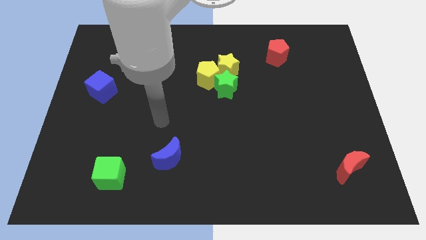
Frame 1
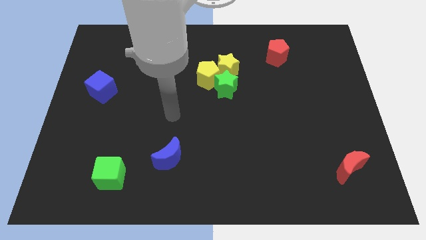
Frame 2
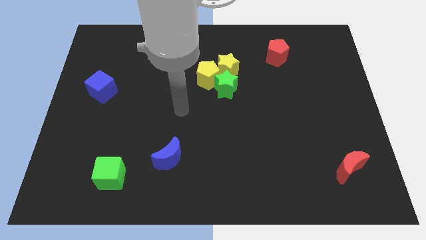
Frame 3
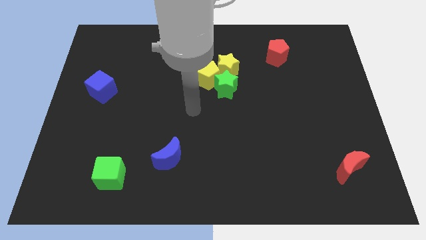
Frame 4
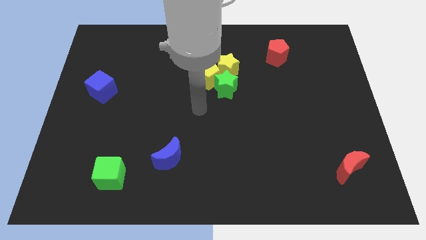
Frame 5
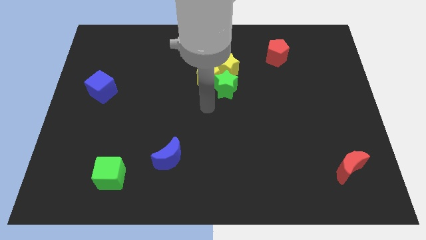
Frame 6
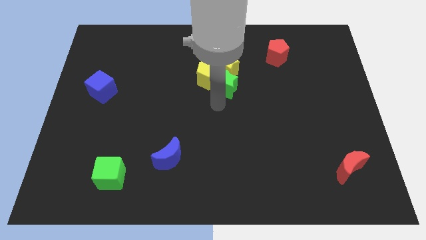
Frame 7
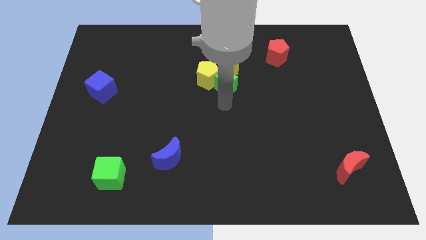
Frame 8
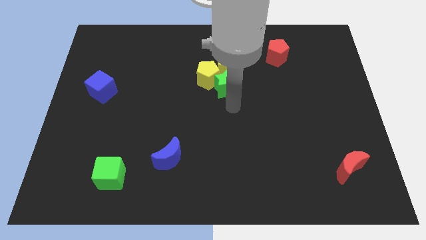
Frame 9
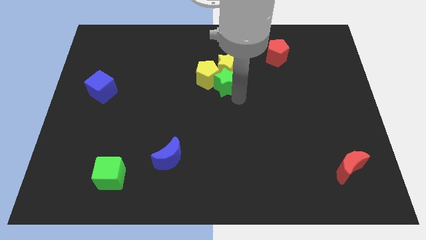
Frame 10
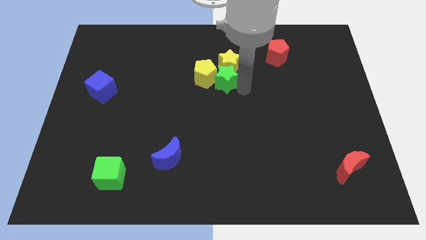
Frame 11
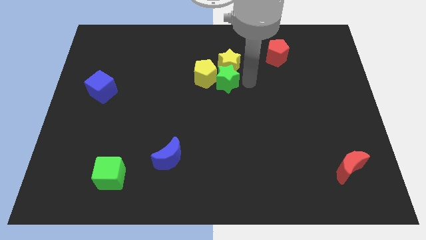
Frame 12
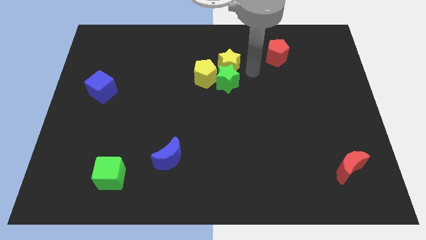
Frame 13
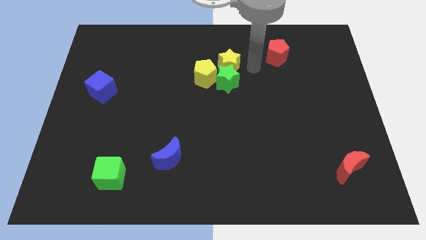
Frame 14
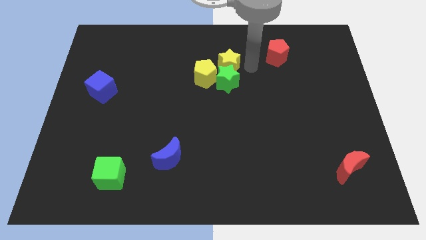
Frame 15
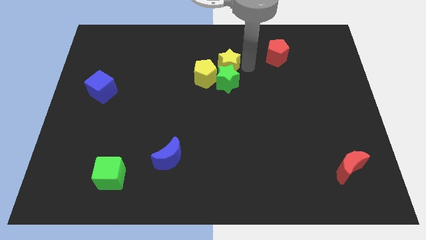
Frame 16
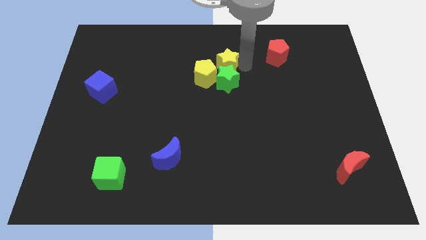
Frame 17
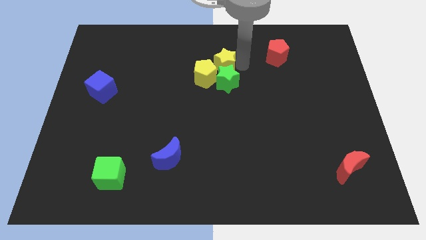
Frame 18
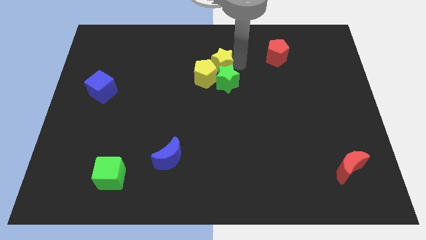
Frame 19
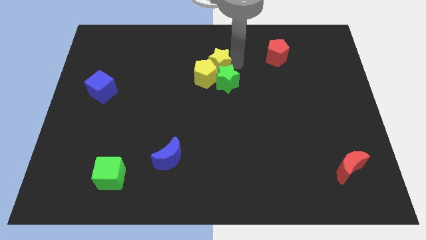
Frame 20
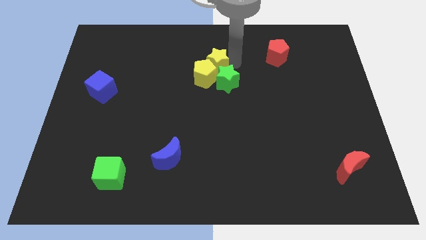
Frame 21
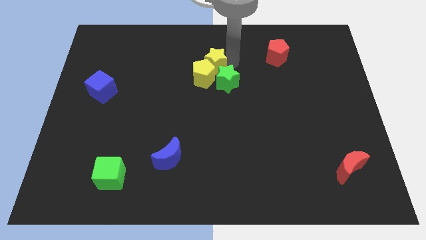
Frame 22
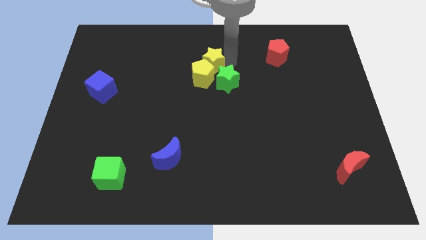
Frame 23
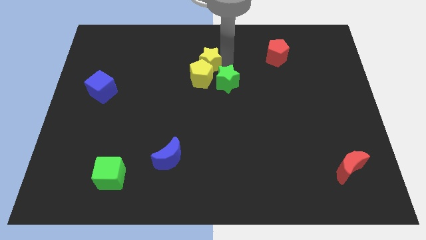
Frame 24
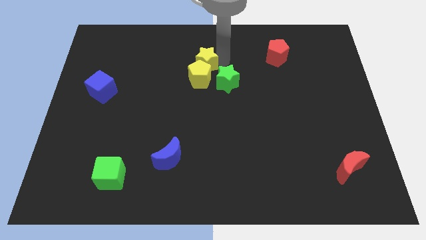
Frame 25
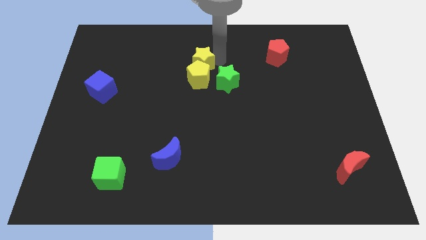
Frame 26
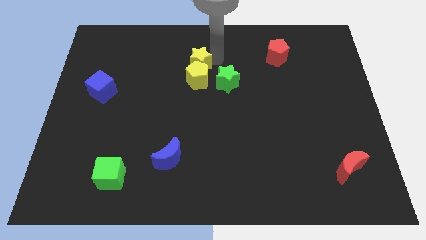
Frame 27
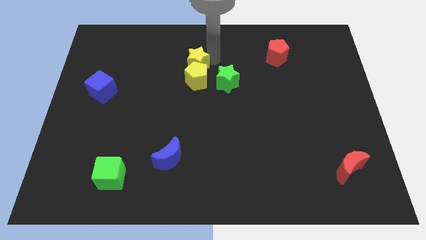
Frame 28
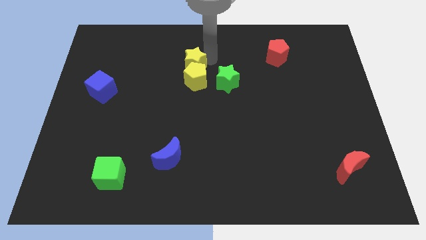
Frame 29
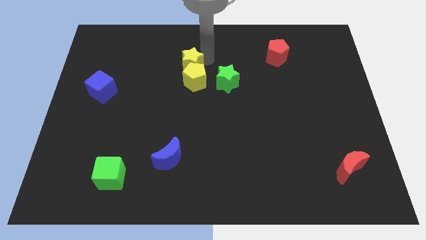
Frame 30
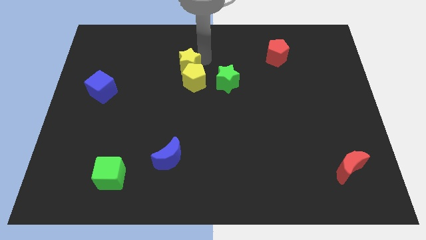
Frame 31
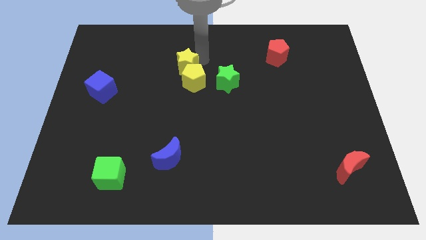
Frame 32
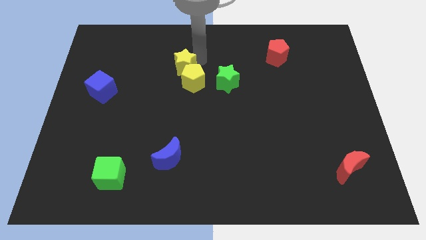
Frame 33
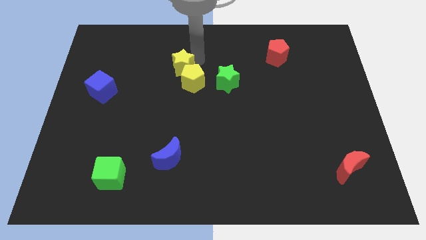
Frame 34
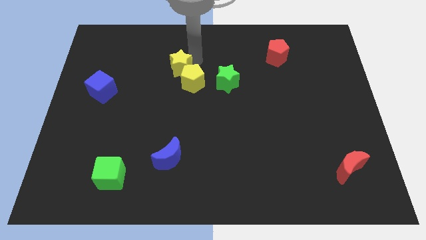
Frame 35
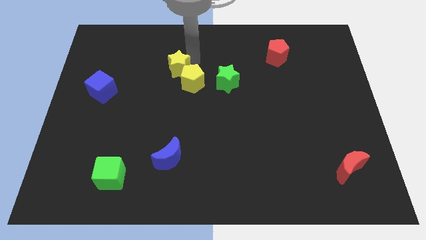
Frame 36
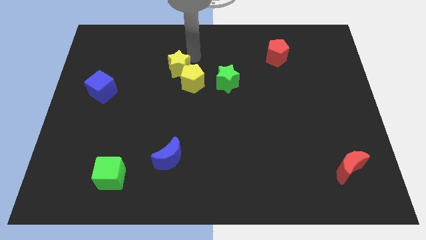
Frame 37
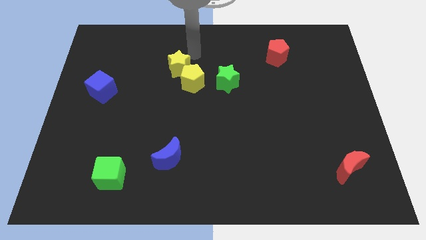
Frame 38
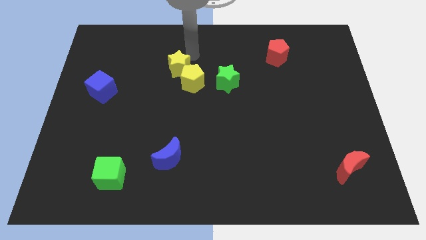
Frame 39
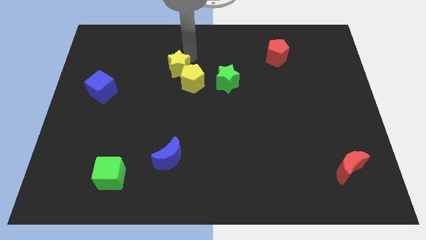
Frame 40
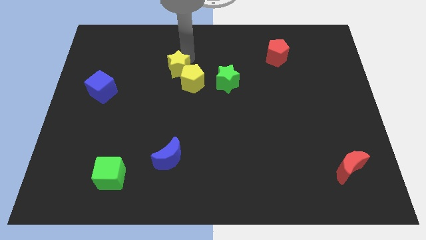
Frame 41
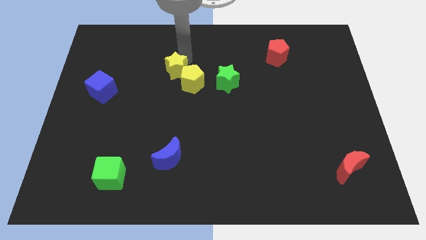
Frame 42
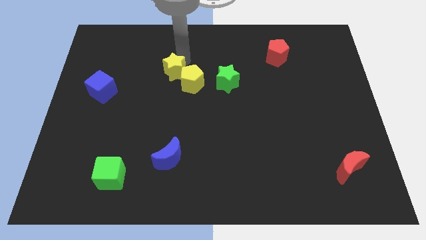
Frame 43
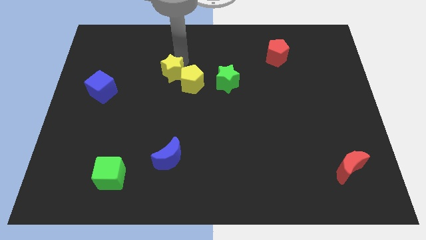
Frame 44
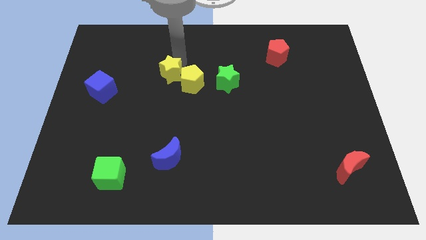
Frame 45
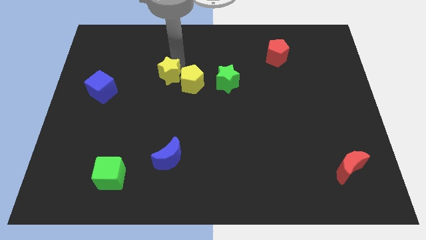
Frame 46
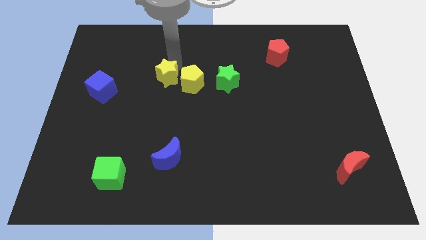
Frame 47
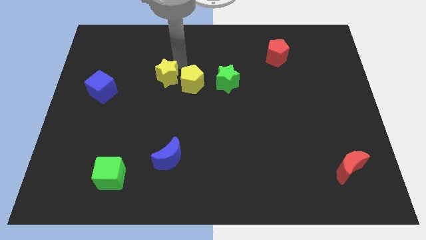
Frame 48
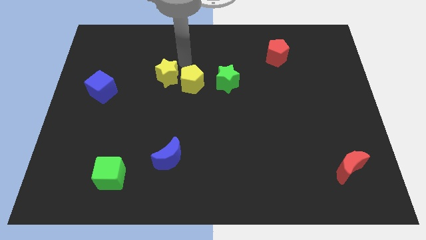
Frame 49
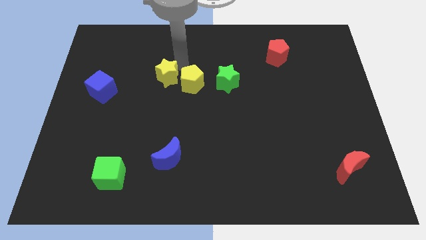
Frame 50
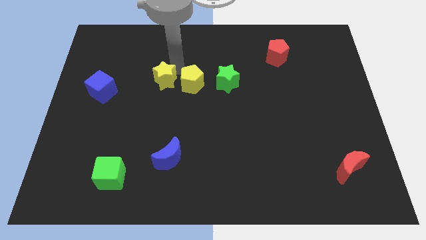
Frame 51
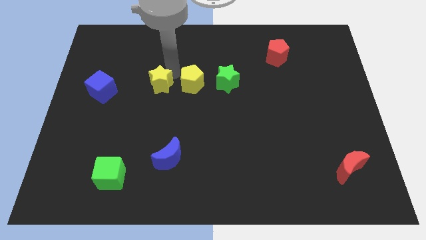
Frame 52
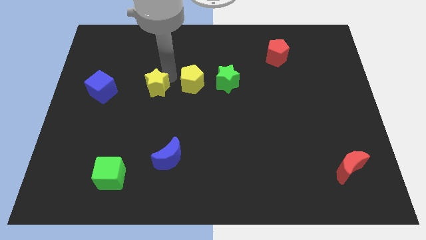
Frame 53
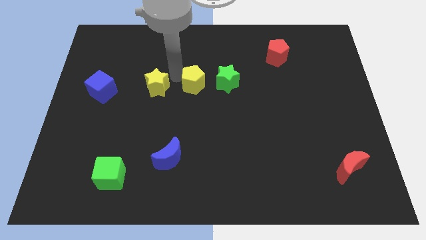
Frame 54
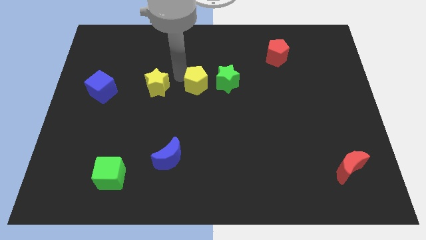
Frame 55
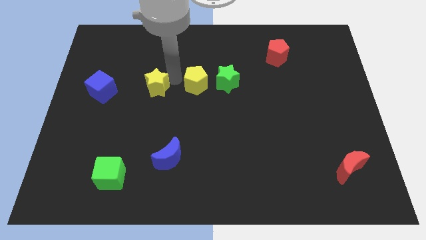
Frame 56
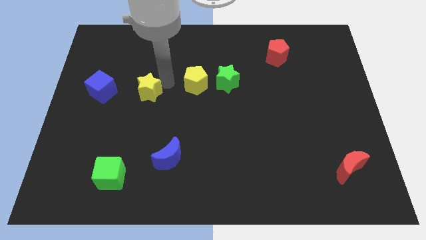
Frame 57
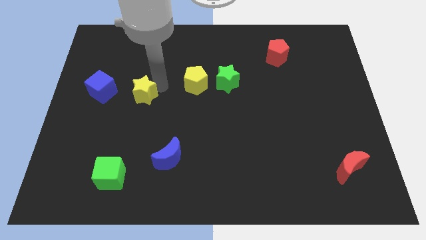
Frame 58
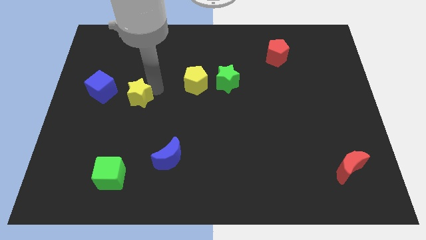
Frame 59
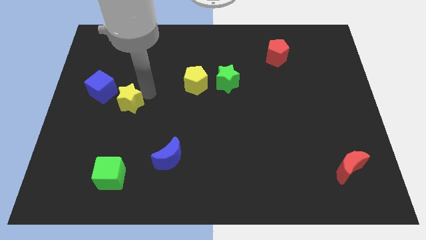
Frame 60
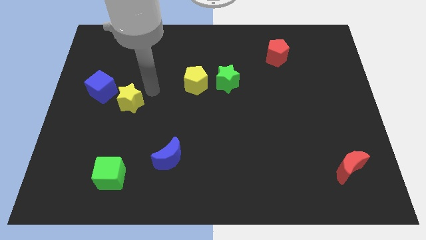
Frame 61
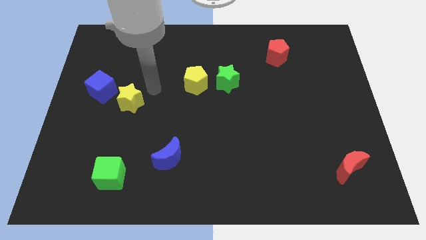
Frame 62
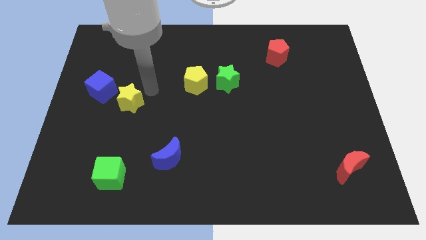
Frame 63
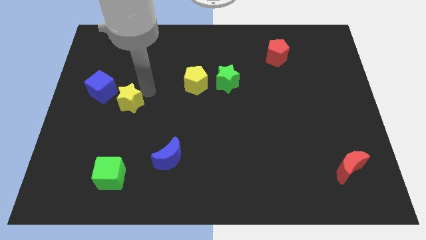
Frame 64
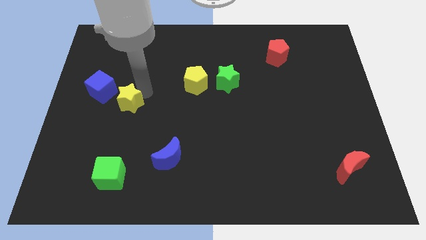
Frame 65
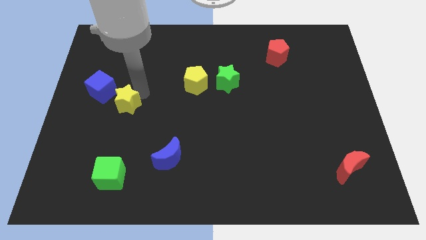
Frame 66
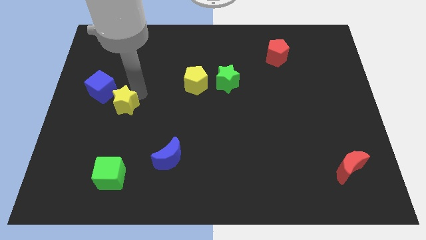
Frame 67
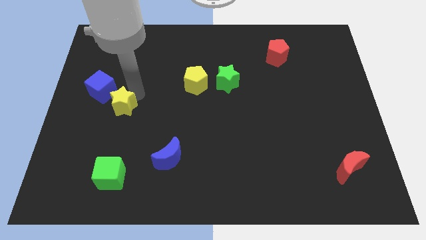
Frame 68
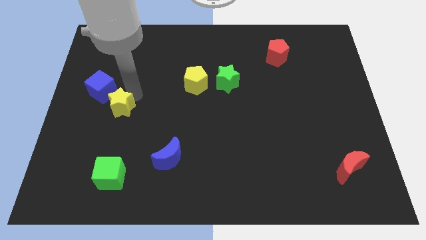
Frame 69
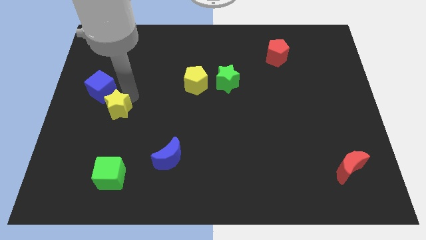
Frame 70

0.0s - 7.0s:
push the yellow star below the blue cube

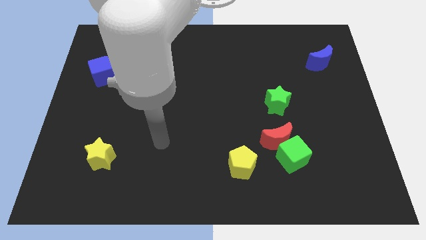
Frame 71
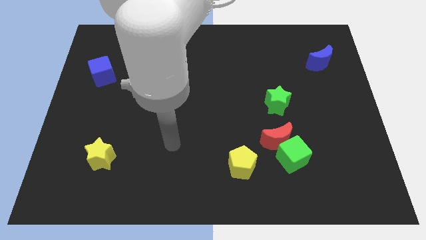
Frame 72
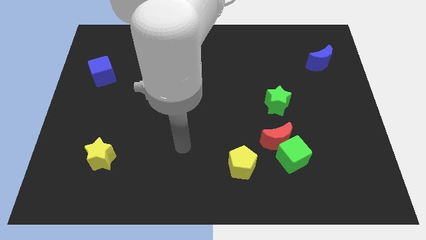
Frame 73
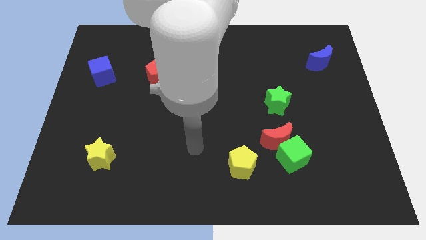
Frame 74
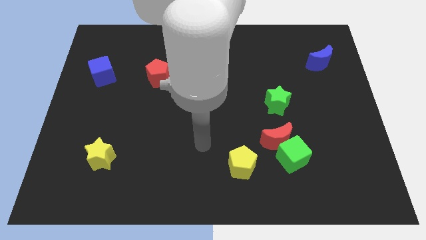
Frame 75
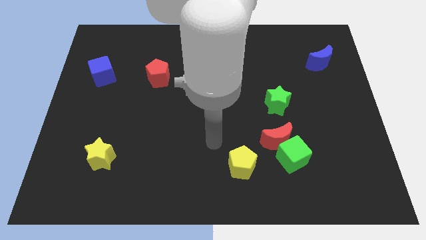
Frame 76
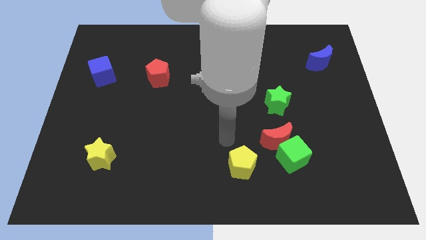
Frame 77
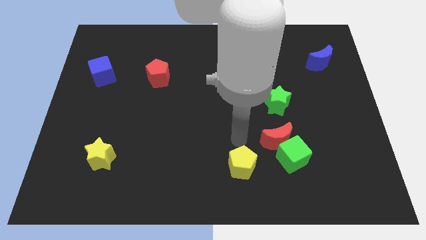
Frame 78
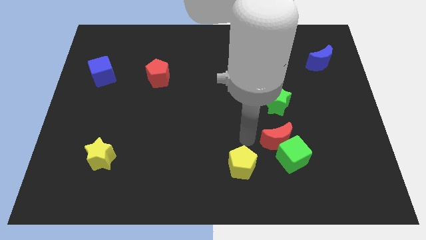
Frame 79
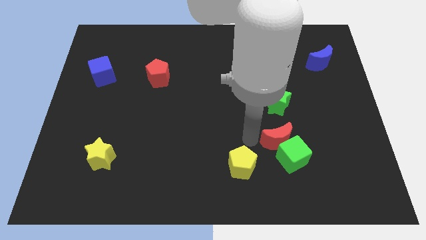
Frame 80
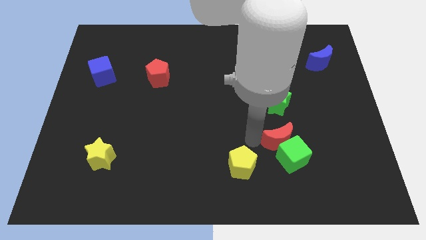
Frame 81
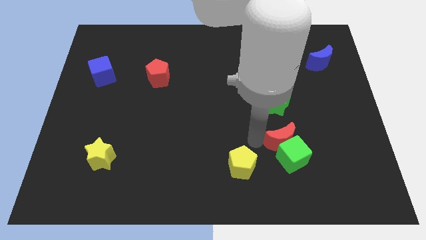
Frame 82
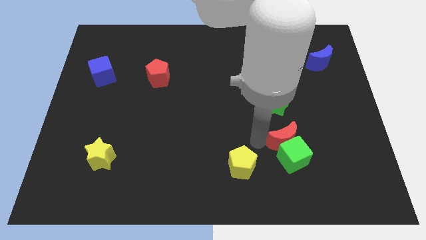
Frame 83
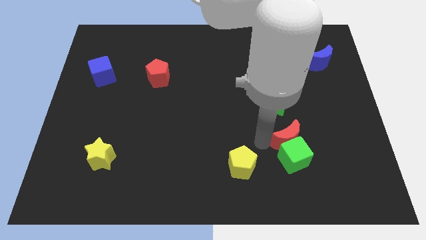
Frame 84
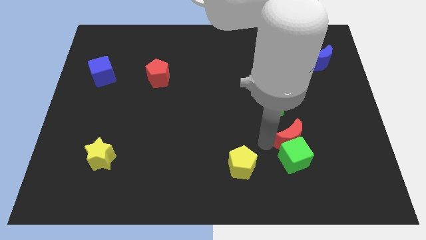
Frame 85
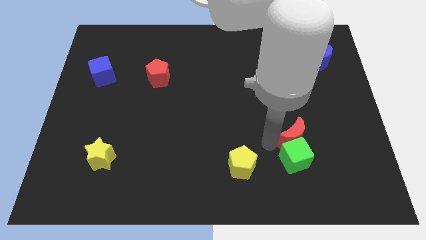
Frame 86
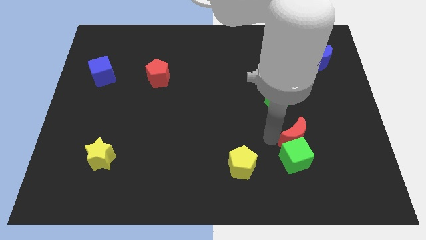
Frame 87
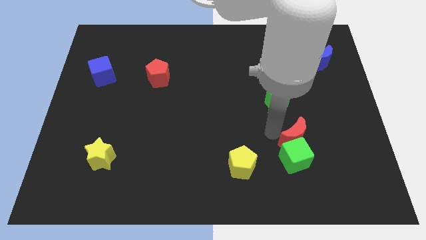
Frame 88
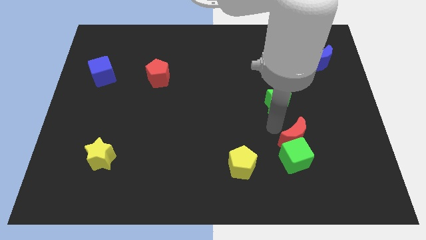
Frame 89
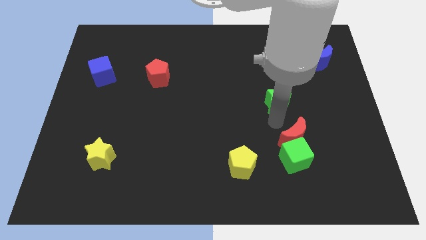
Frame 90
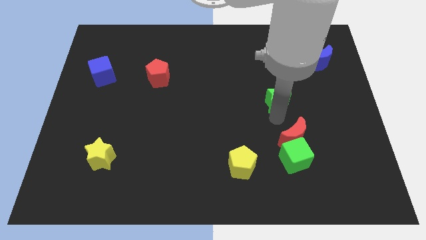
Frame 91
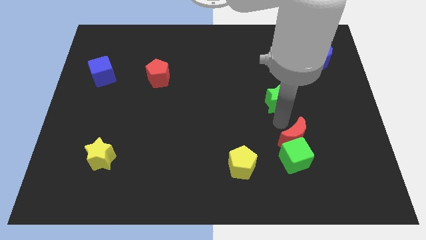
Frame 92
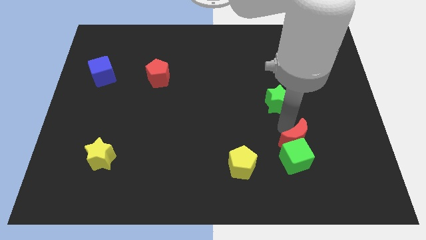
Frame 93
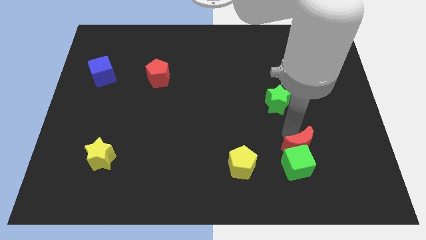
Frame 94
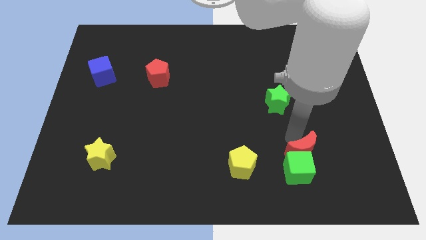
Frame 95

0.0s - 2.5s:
put the red moon to the right side of the yellow pentagon
